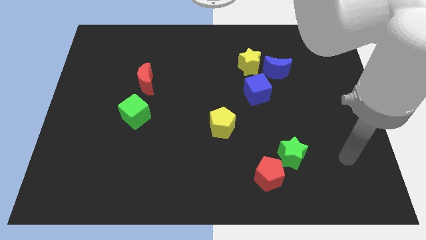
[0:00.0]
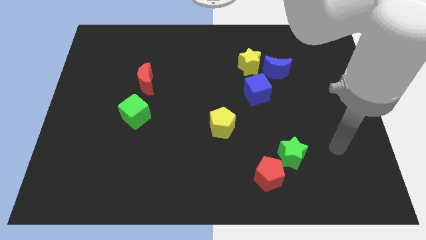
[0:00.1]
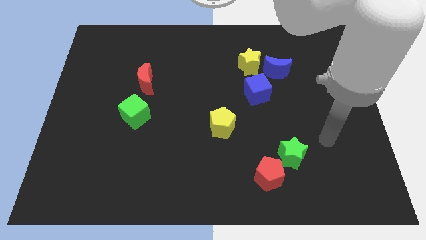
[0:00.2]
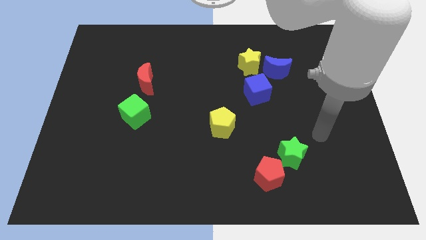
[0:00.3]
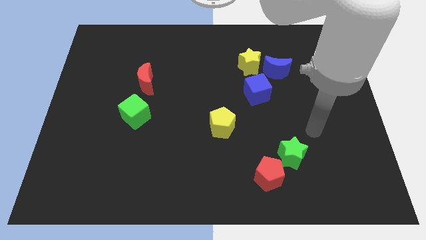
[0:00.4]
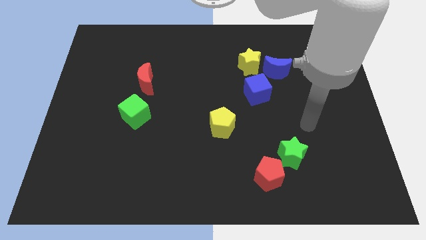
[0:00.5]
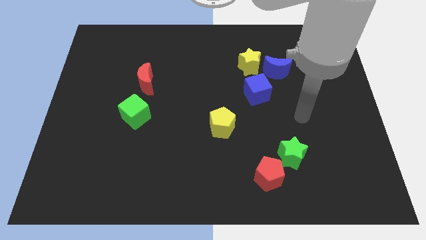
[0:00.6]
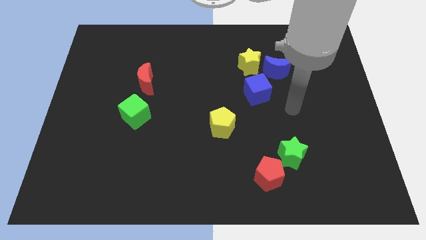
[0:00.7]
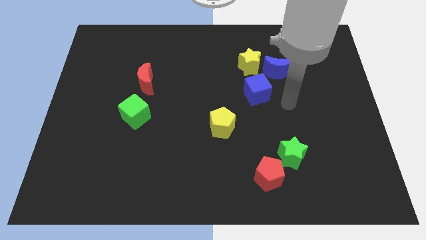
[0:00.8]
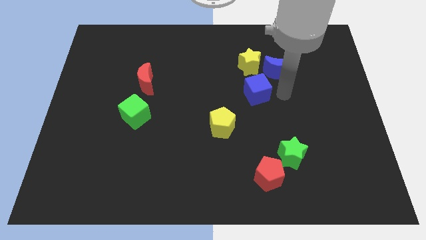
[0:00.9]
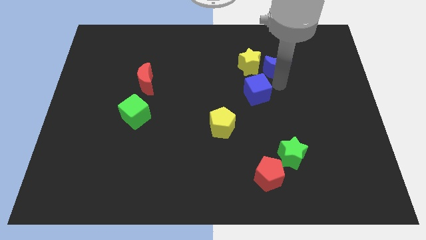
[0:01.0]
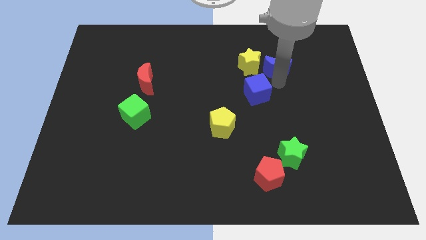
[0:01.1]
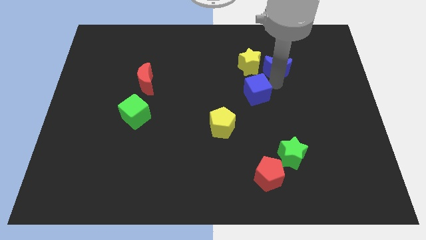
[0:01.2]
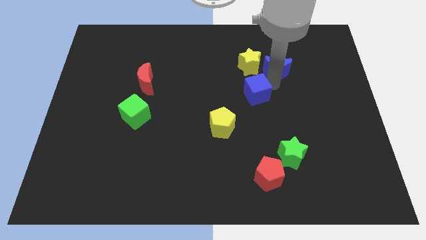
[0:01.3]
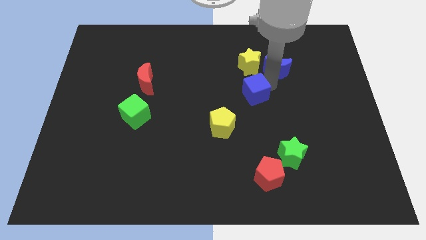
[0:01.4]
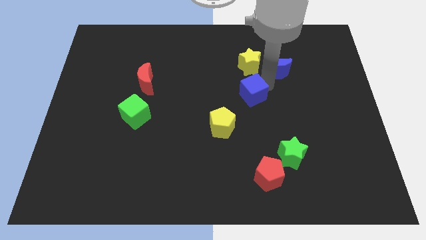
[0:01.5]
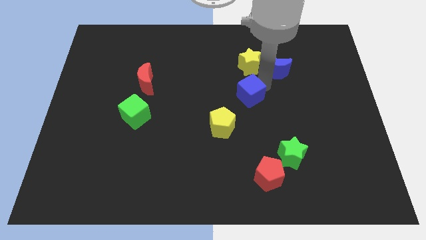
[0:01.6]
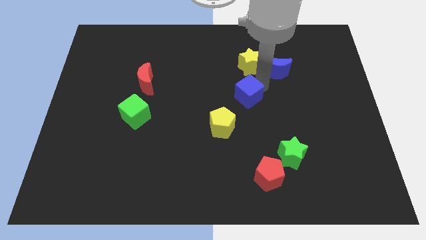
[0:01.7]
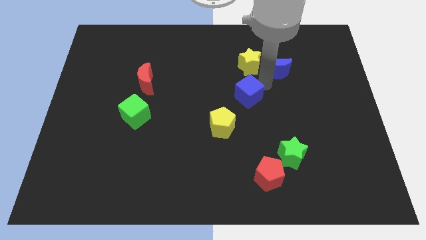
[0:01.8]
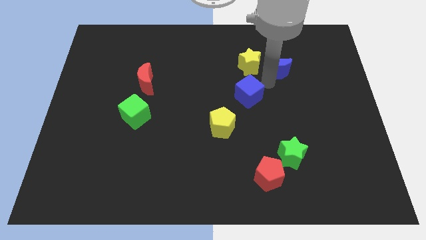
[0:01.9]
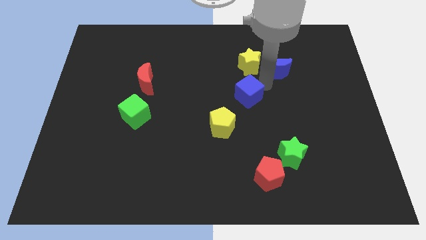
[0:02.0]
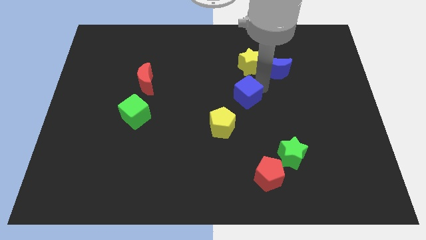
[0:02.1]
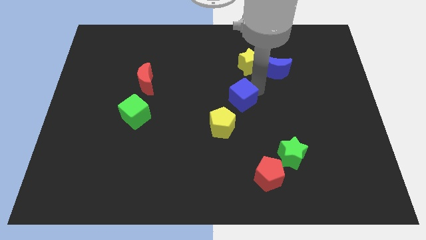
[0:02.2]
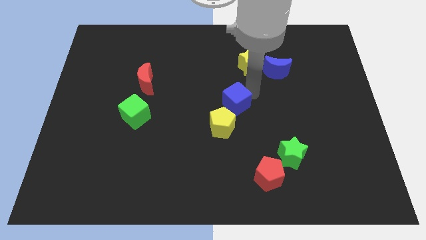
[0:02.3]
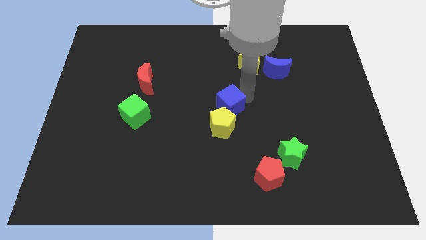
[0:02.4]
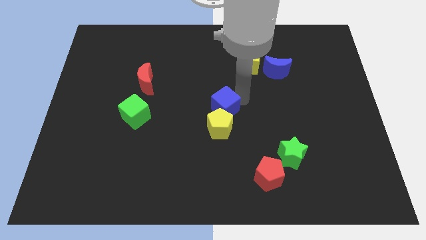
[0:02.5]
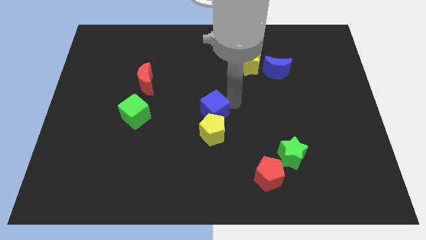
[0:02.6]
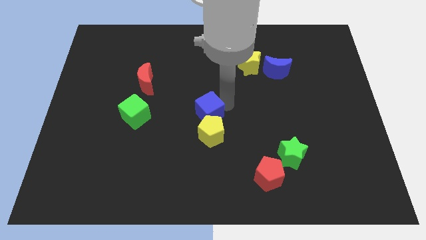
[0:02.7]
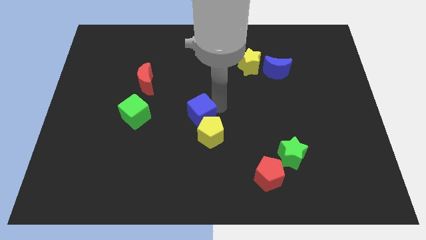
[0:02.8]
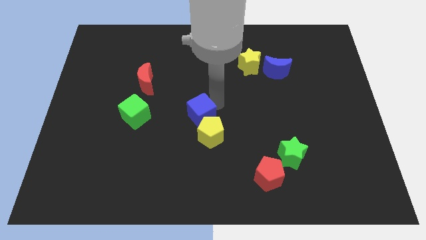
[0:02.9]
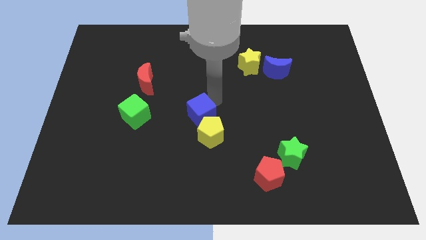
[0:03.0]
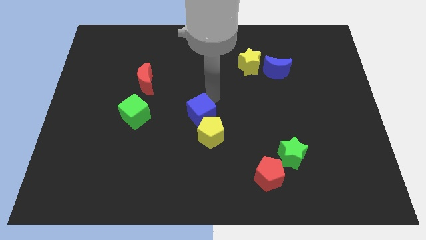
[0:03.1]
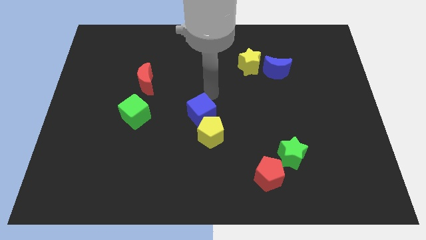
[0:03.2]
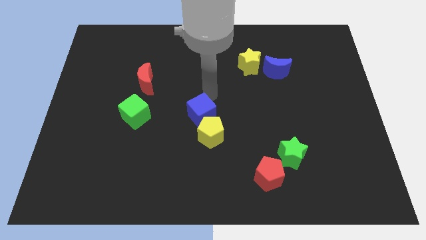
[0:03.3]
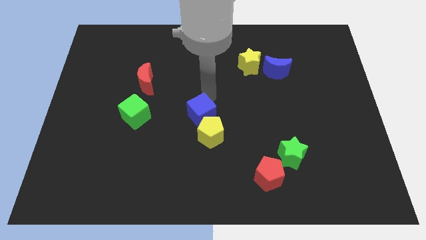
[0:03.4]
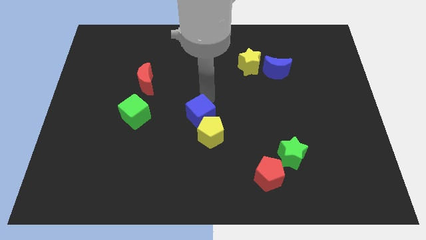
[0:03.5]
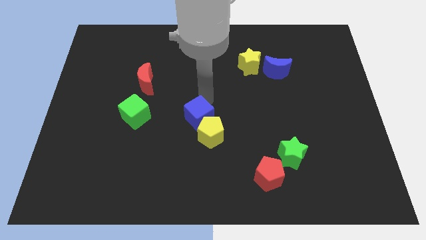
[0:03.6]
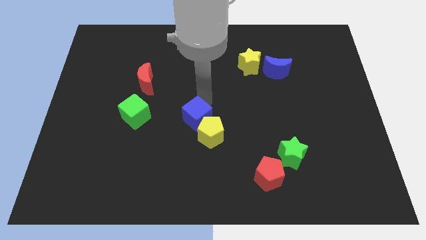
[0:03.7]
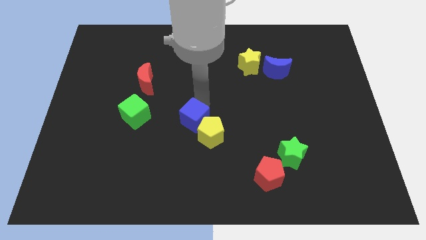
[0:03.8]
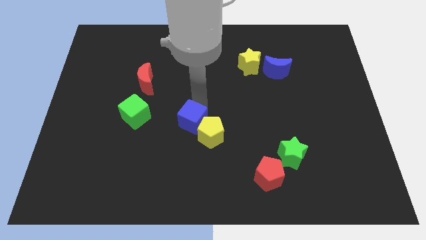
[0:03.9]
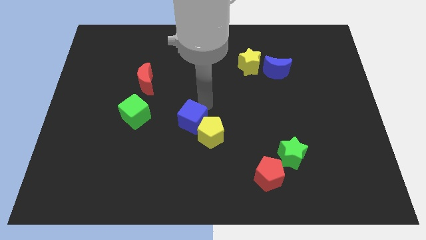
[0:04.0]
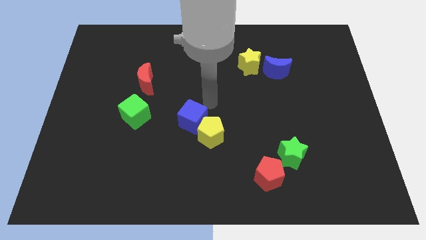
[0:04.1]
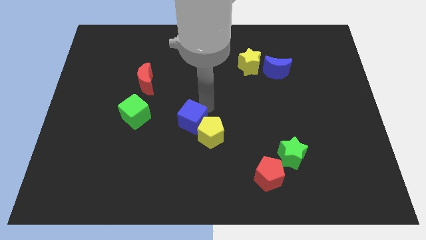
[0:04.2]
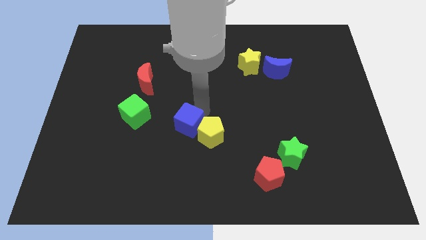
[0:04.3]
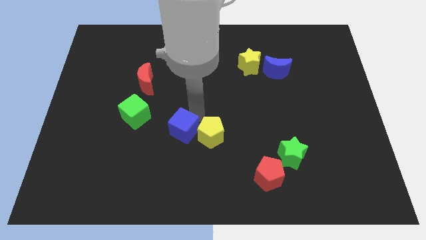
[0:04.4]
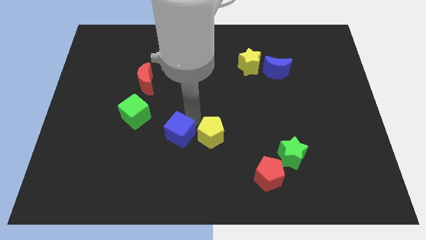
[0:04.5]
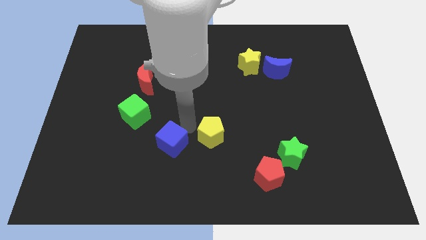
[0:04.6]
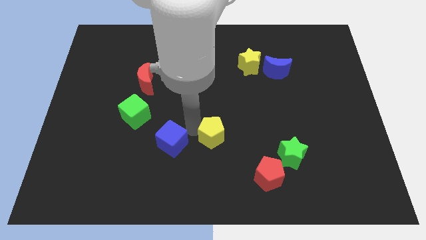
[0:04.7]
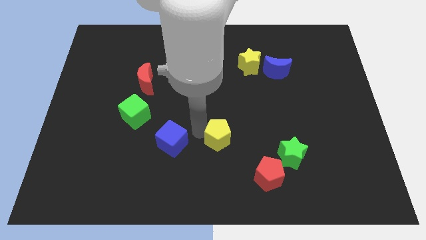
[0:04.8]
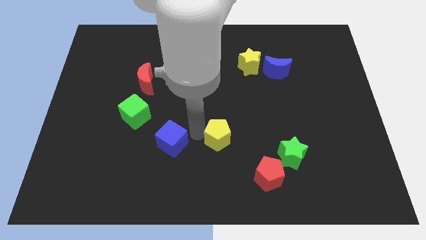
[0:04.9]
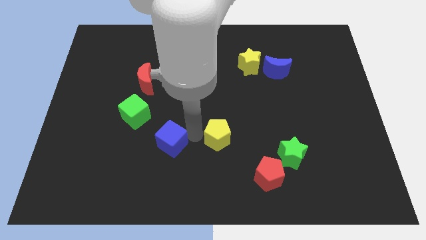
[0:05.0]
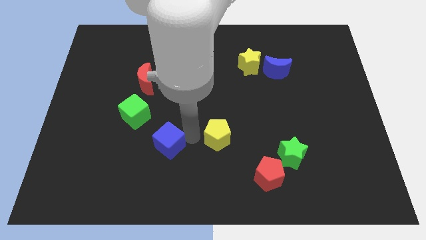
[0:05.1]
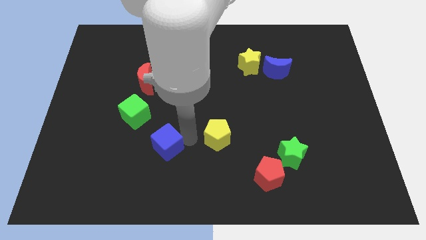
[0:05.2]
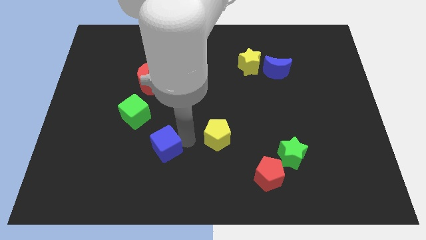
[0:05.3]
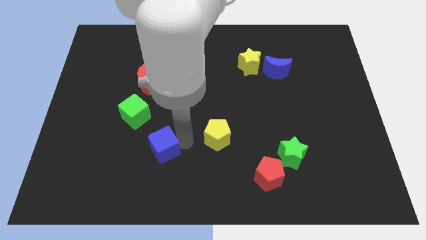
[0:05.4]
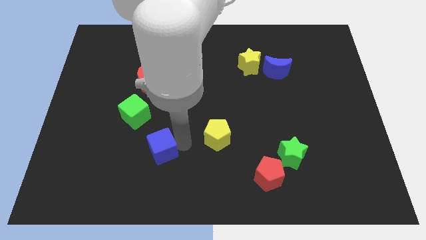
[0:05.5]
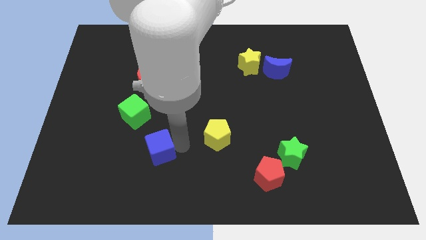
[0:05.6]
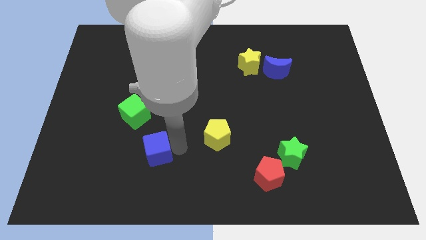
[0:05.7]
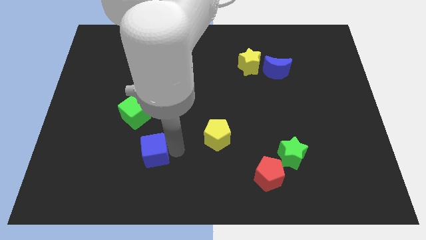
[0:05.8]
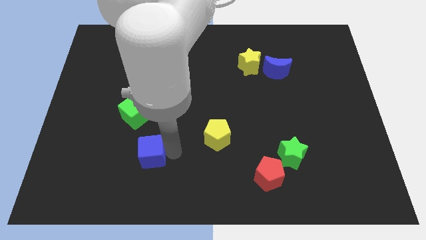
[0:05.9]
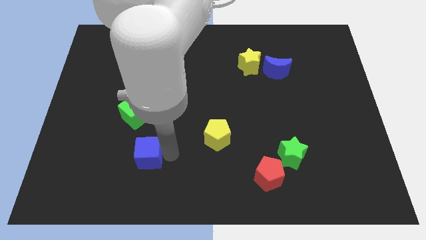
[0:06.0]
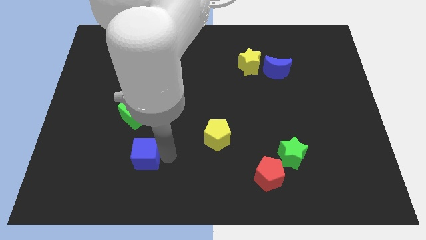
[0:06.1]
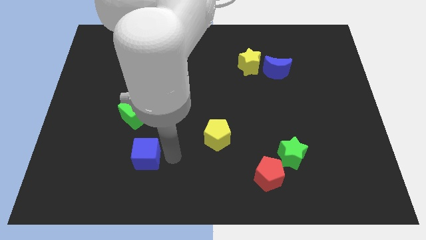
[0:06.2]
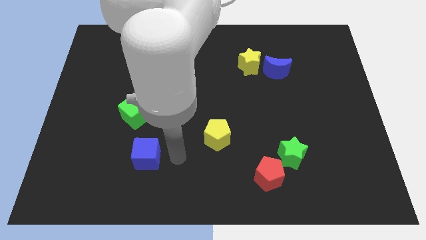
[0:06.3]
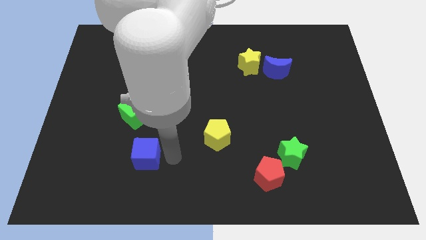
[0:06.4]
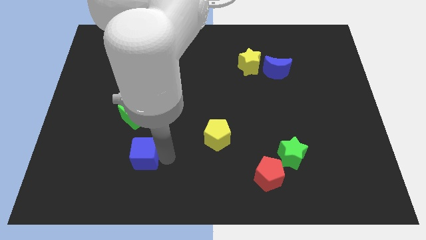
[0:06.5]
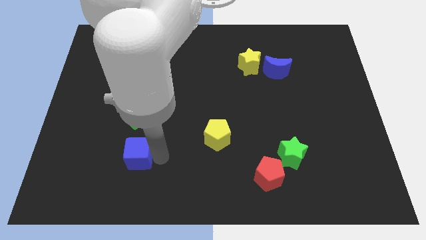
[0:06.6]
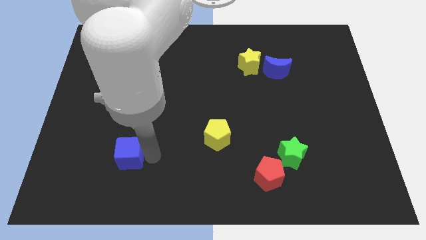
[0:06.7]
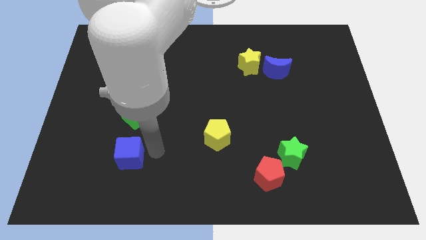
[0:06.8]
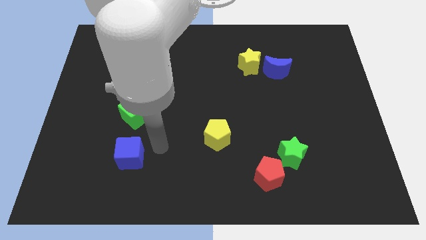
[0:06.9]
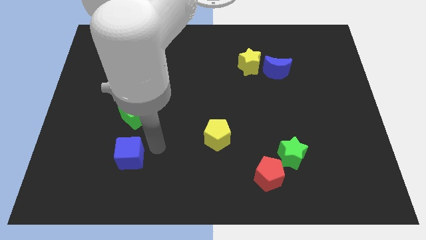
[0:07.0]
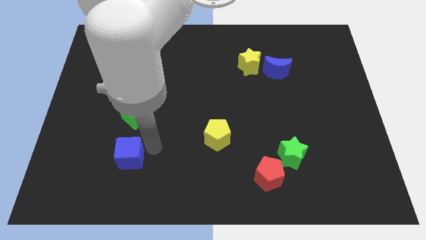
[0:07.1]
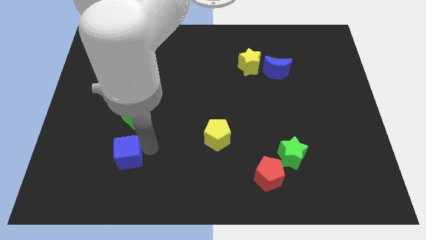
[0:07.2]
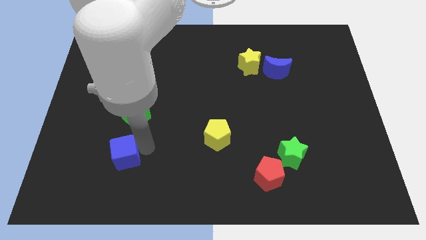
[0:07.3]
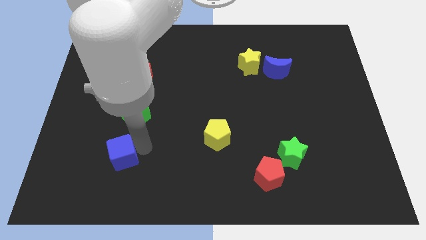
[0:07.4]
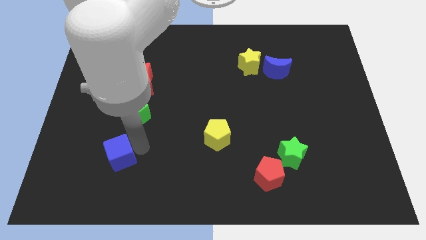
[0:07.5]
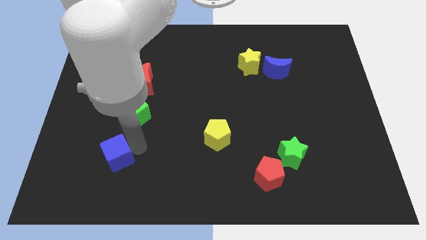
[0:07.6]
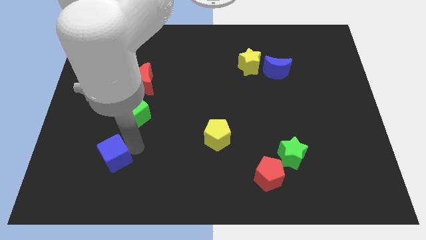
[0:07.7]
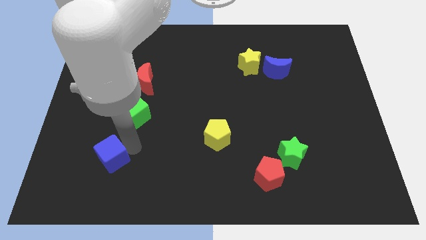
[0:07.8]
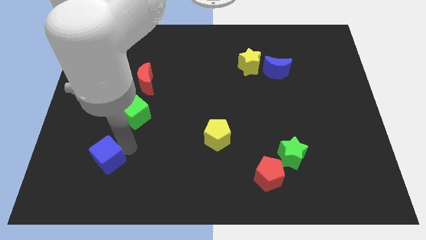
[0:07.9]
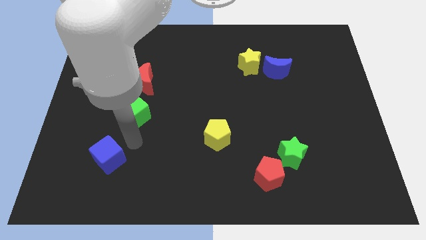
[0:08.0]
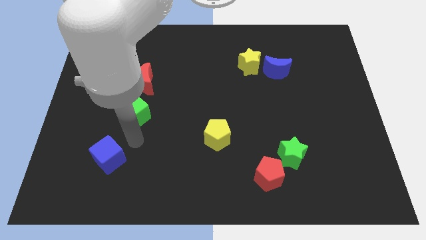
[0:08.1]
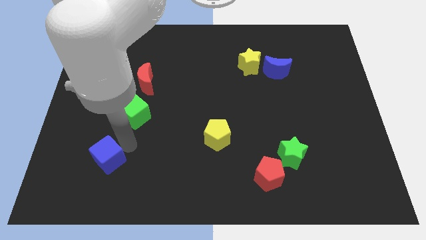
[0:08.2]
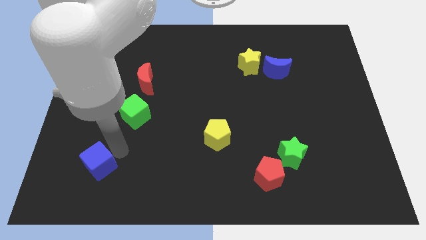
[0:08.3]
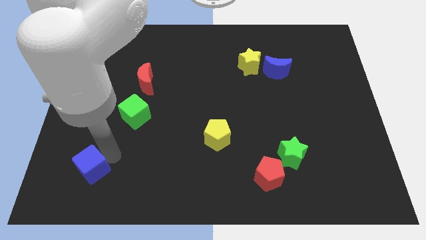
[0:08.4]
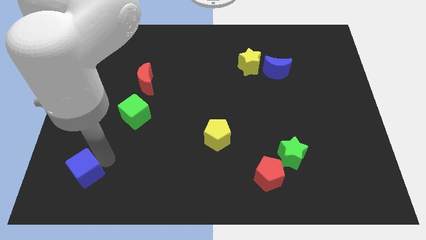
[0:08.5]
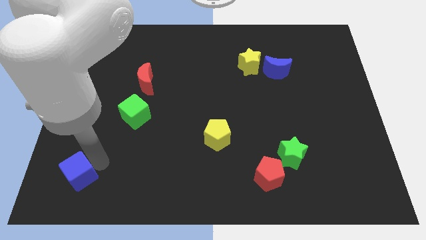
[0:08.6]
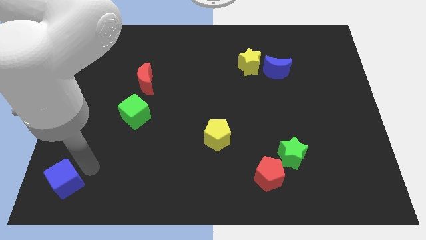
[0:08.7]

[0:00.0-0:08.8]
put the blue cube to the bottom left
